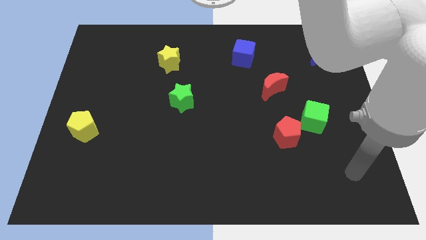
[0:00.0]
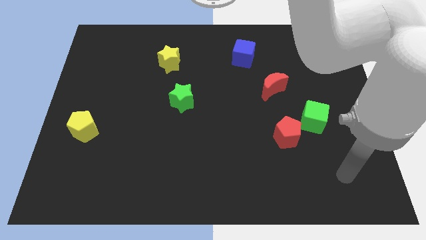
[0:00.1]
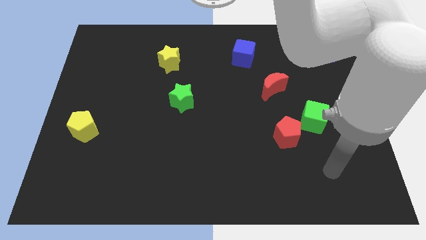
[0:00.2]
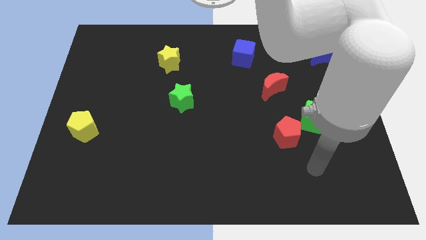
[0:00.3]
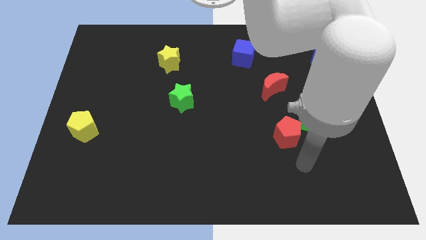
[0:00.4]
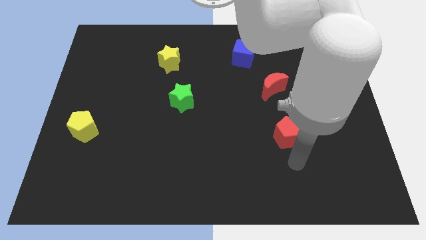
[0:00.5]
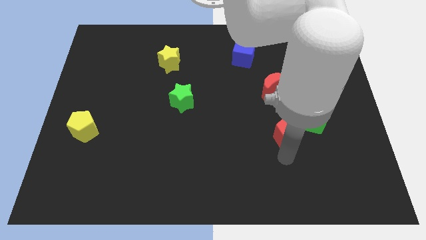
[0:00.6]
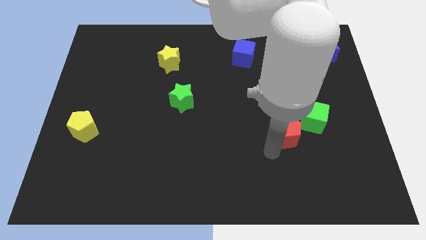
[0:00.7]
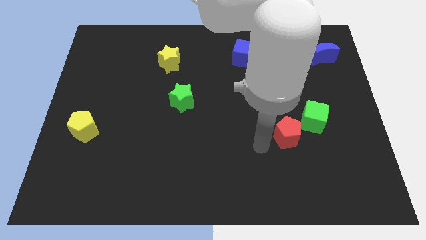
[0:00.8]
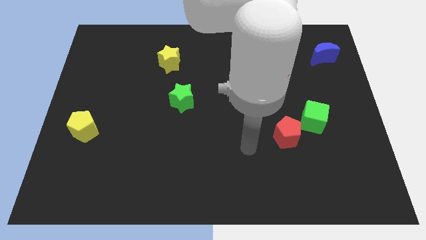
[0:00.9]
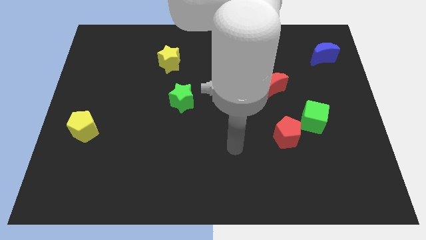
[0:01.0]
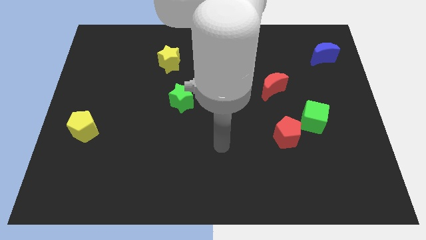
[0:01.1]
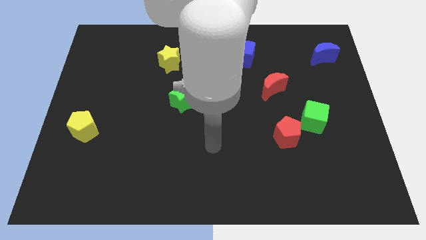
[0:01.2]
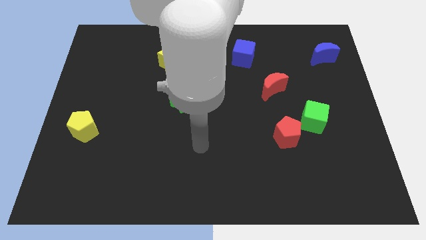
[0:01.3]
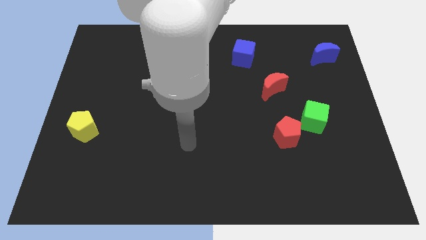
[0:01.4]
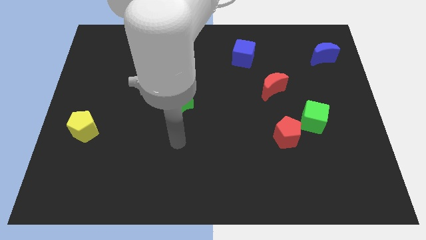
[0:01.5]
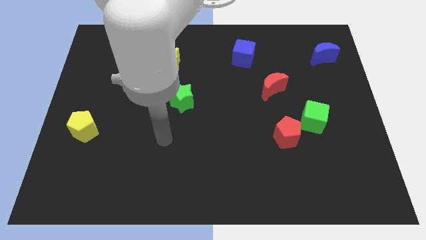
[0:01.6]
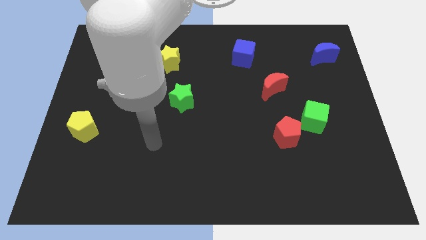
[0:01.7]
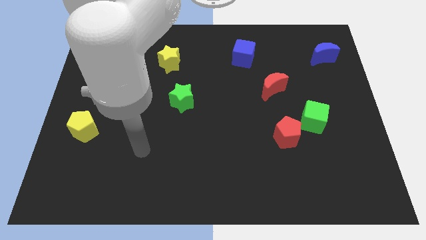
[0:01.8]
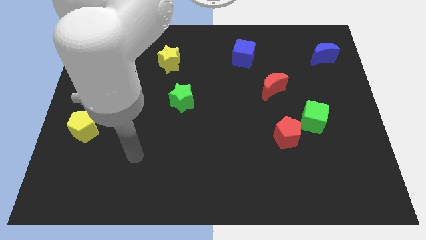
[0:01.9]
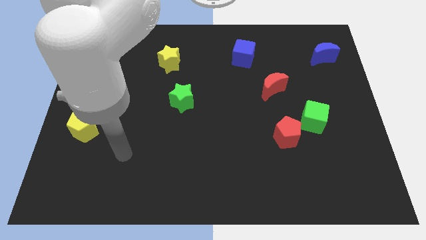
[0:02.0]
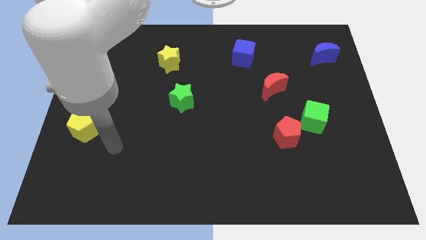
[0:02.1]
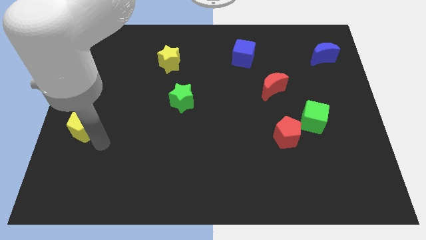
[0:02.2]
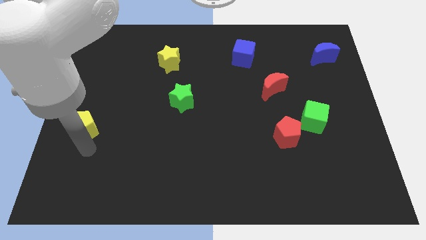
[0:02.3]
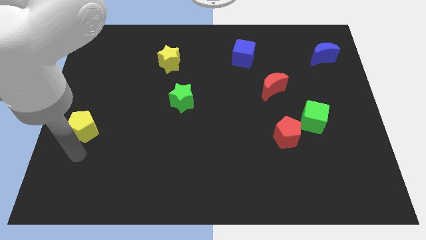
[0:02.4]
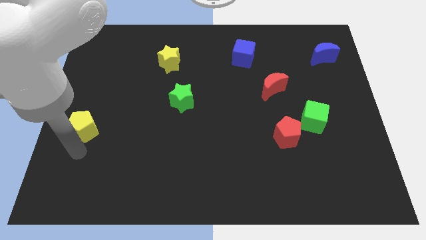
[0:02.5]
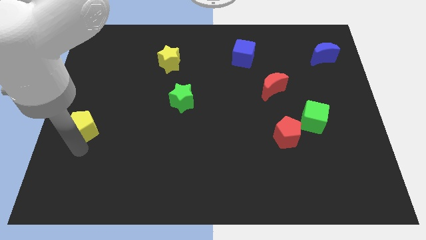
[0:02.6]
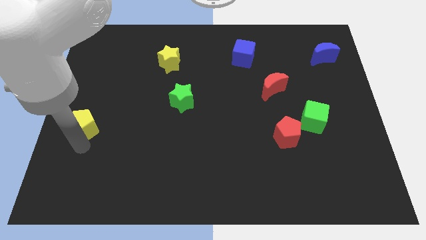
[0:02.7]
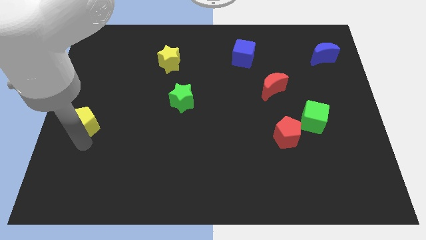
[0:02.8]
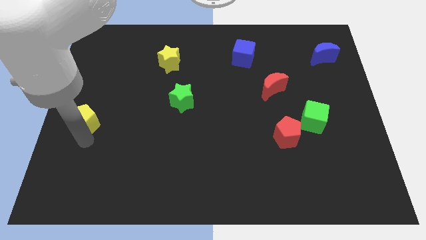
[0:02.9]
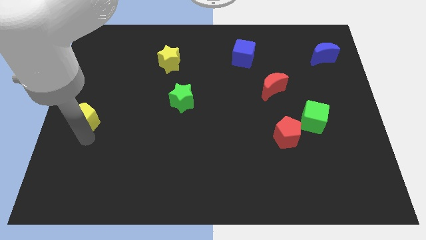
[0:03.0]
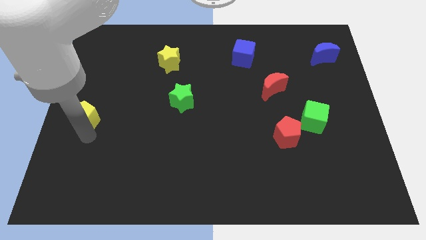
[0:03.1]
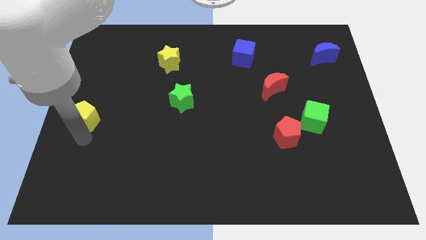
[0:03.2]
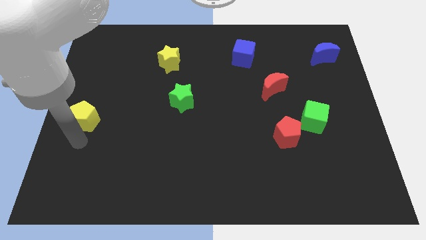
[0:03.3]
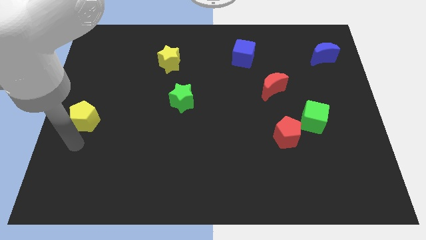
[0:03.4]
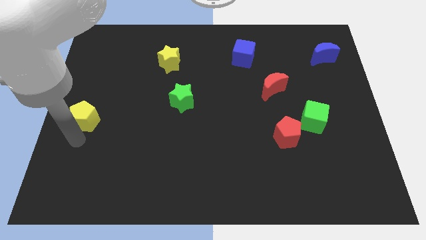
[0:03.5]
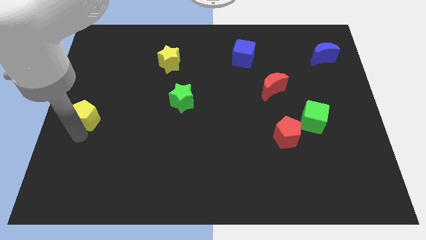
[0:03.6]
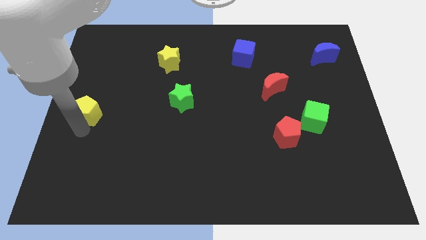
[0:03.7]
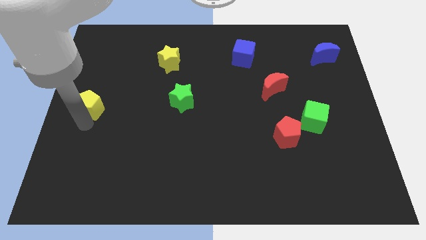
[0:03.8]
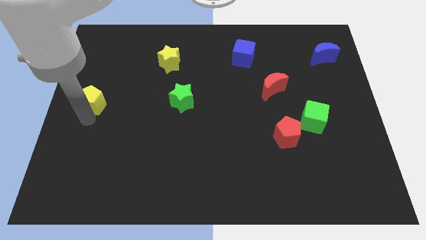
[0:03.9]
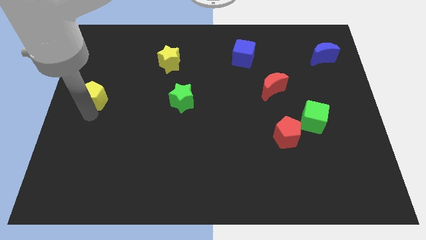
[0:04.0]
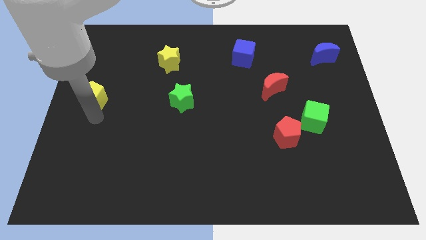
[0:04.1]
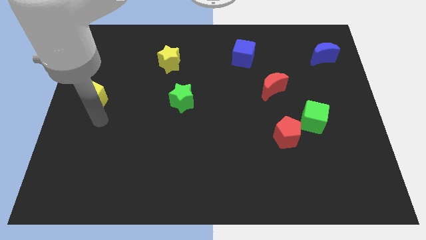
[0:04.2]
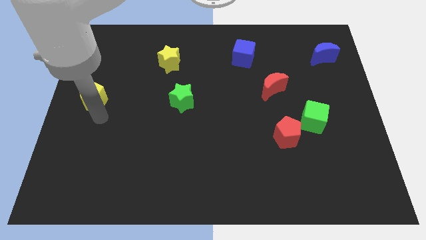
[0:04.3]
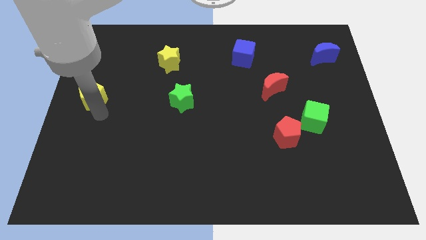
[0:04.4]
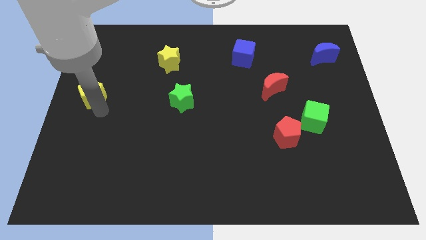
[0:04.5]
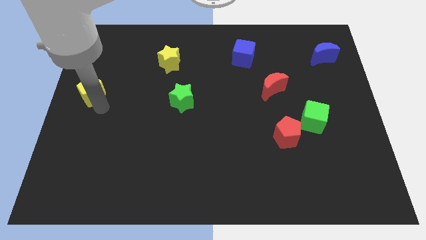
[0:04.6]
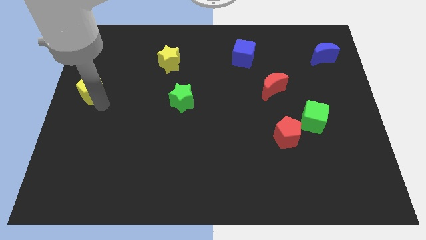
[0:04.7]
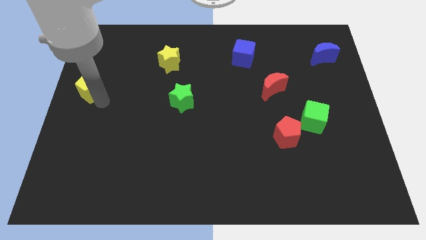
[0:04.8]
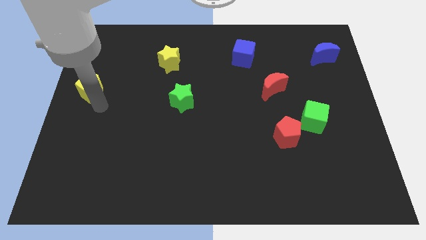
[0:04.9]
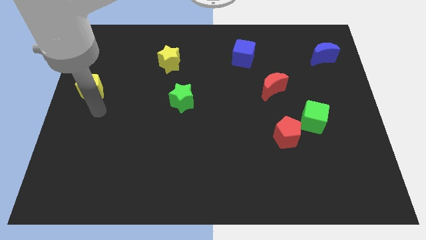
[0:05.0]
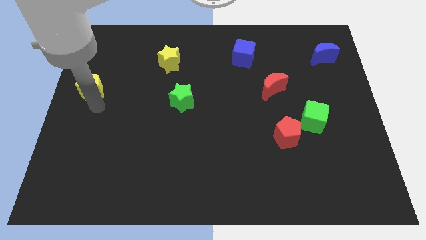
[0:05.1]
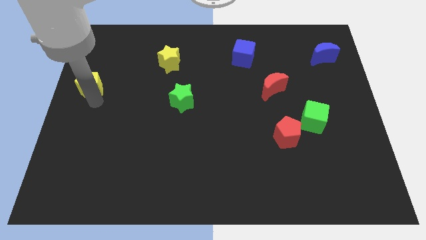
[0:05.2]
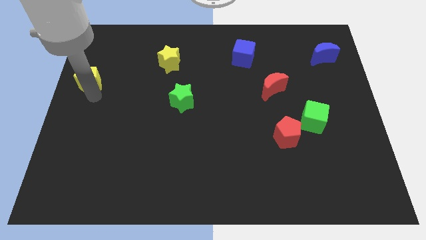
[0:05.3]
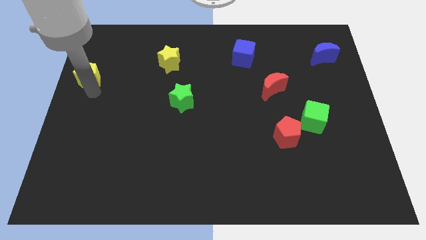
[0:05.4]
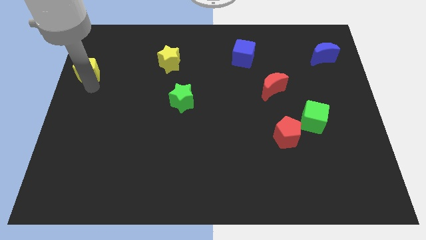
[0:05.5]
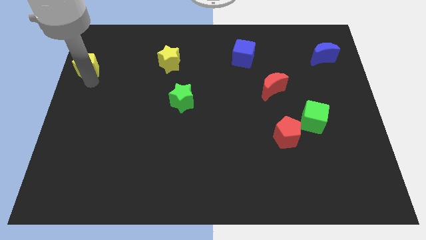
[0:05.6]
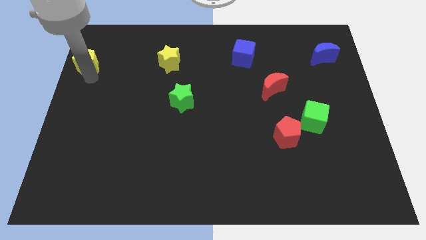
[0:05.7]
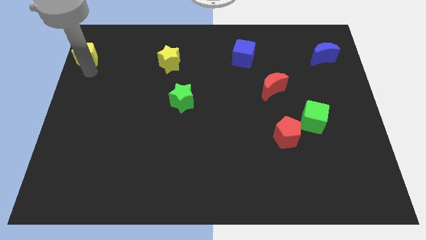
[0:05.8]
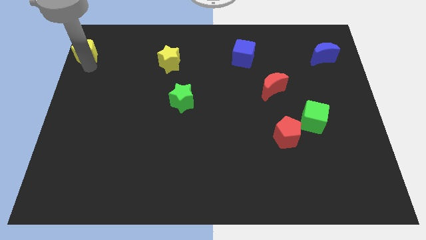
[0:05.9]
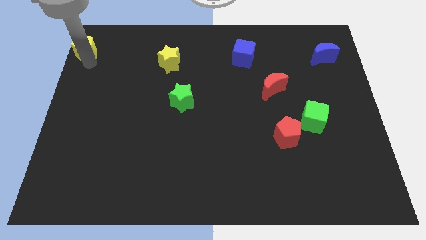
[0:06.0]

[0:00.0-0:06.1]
slide the yellow pentagon to the top left corner
